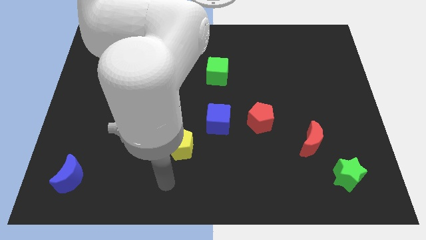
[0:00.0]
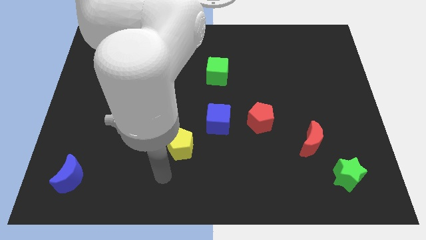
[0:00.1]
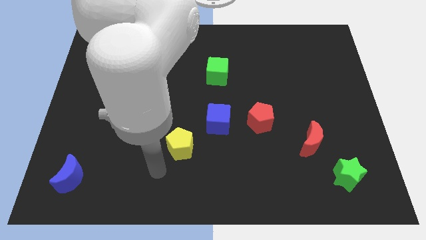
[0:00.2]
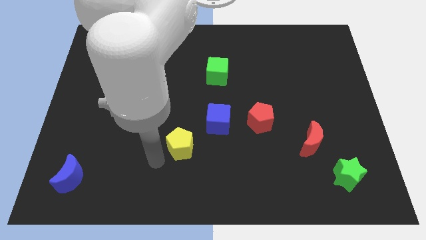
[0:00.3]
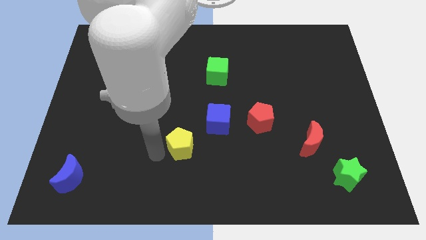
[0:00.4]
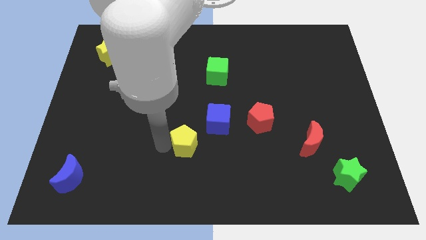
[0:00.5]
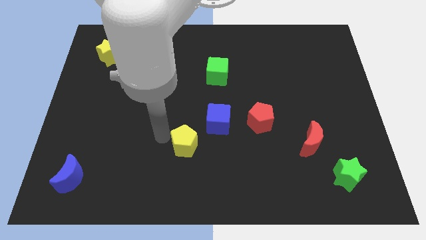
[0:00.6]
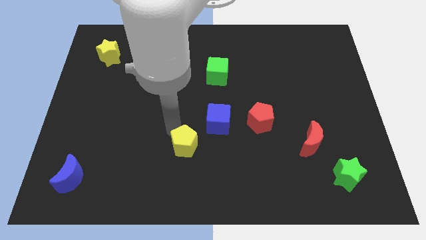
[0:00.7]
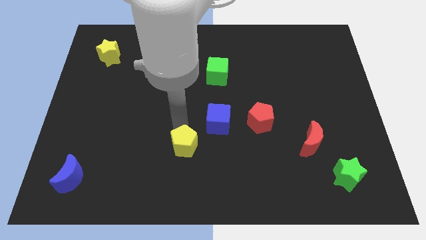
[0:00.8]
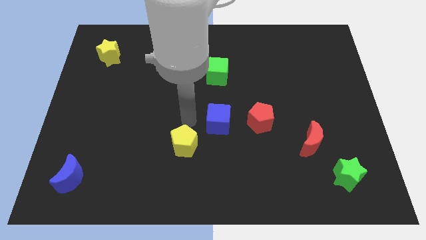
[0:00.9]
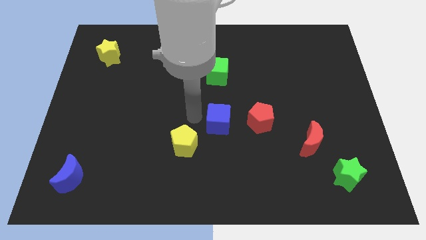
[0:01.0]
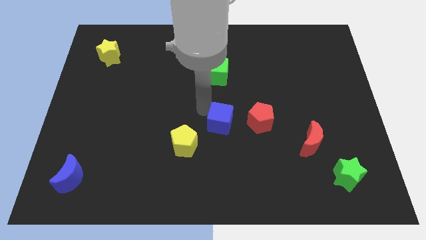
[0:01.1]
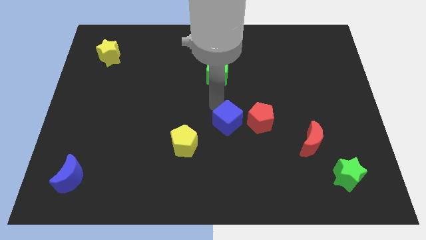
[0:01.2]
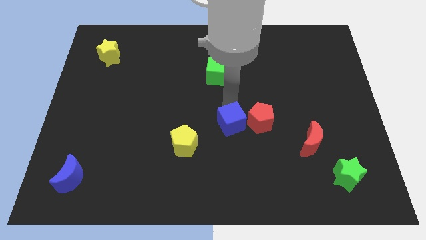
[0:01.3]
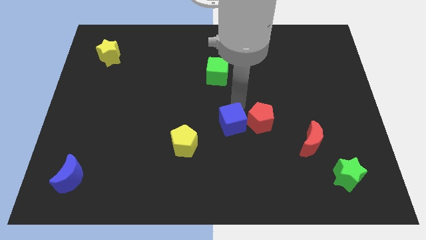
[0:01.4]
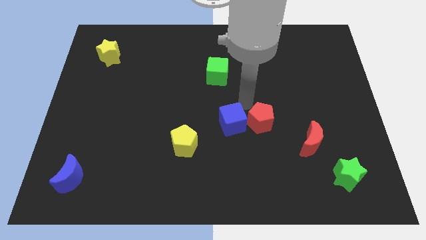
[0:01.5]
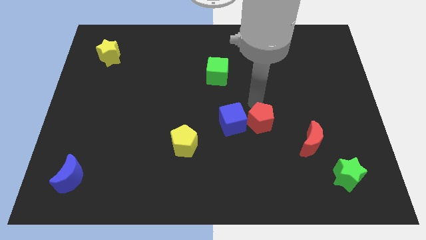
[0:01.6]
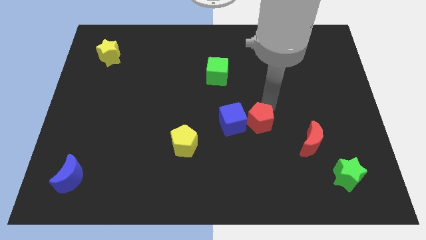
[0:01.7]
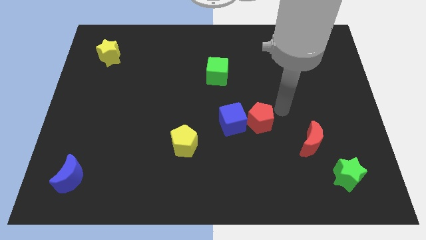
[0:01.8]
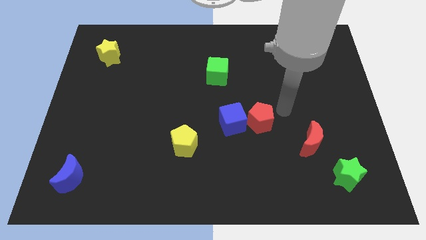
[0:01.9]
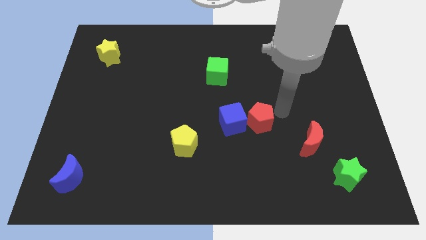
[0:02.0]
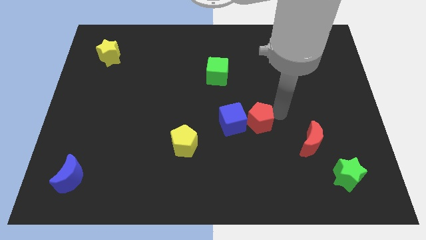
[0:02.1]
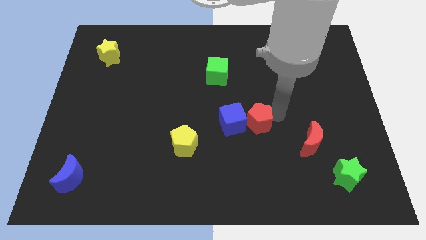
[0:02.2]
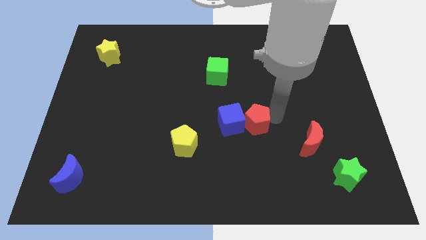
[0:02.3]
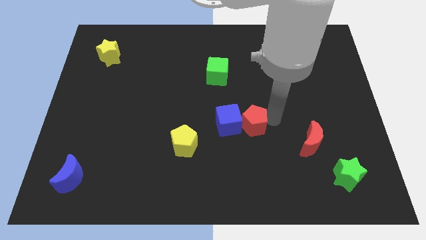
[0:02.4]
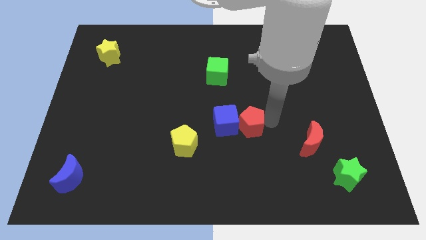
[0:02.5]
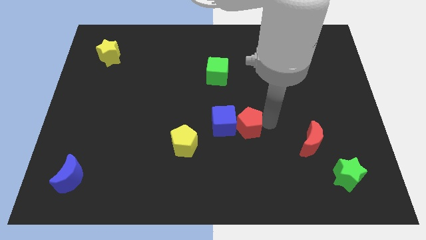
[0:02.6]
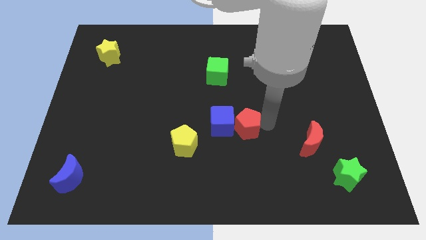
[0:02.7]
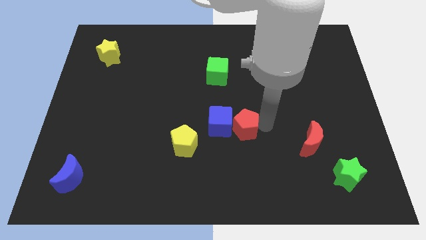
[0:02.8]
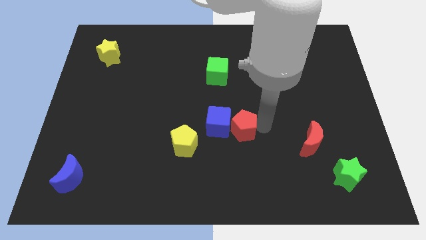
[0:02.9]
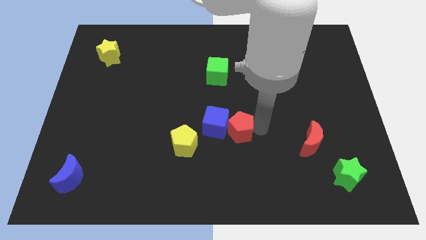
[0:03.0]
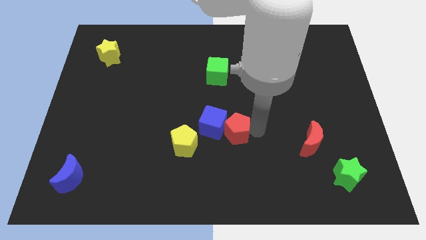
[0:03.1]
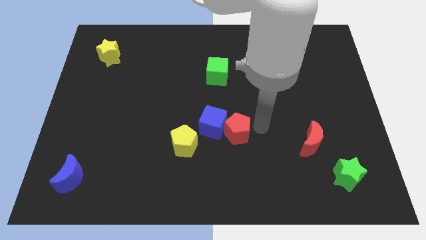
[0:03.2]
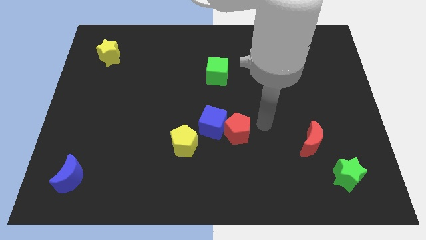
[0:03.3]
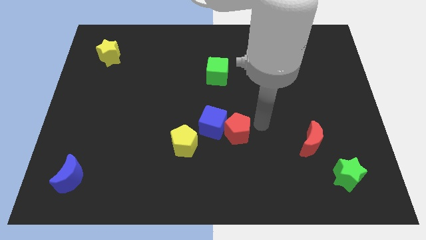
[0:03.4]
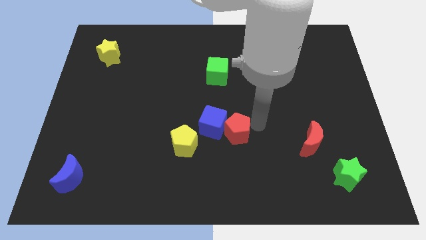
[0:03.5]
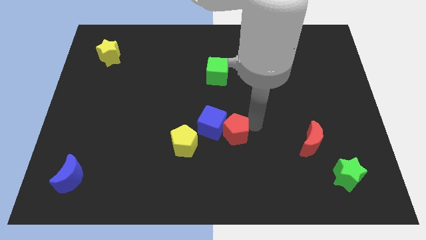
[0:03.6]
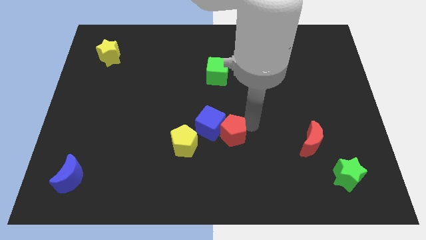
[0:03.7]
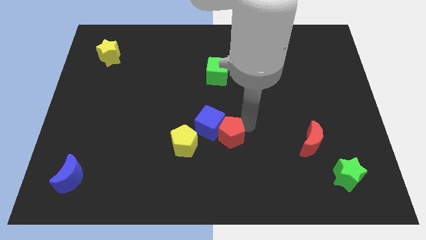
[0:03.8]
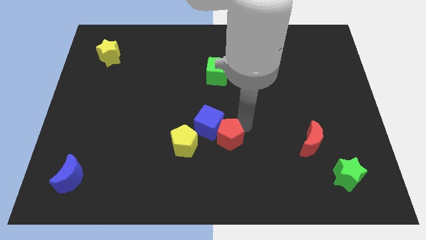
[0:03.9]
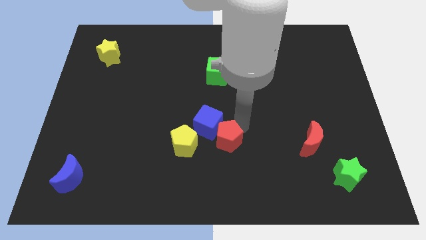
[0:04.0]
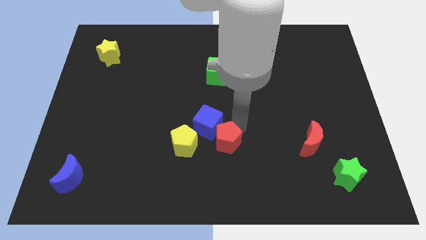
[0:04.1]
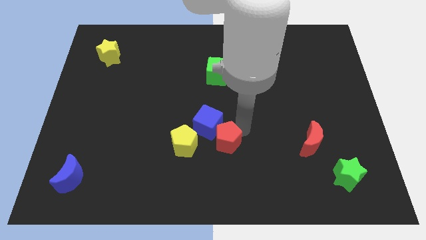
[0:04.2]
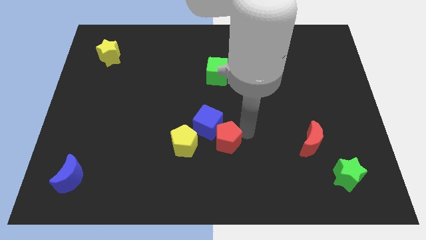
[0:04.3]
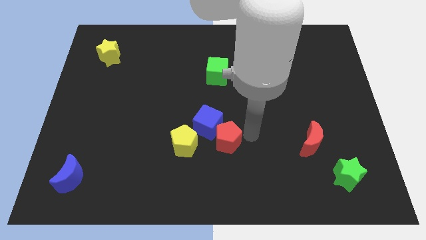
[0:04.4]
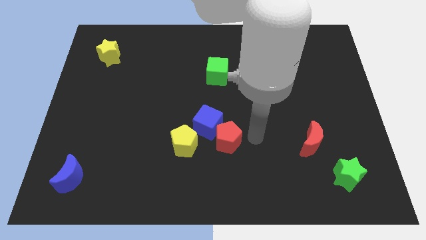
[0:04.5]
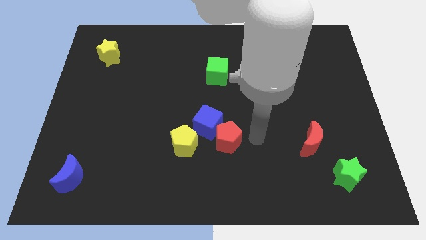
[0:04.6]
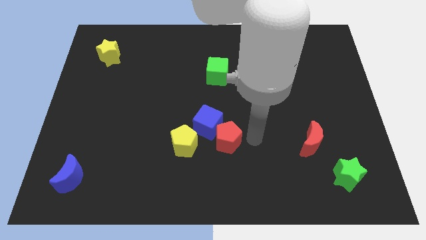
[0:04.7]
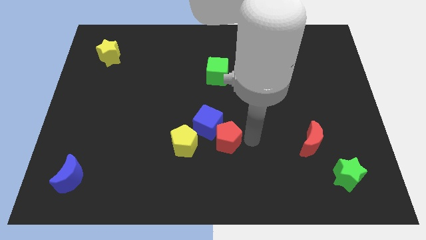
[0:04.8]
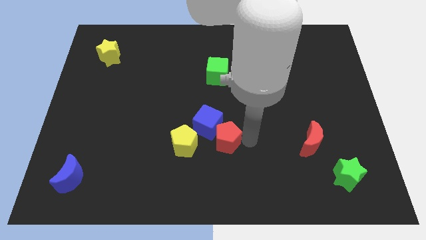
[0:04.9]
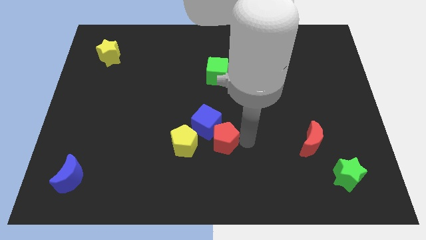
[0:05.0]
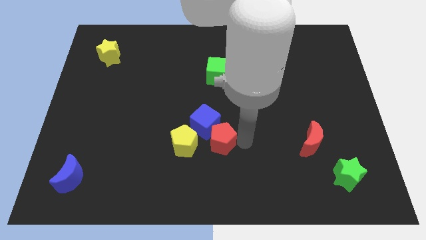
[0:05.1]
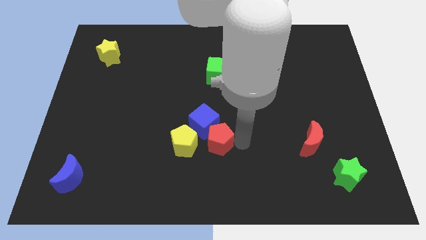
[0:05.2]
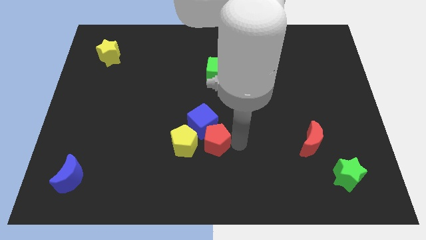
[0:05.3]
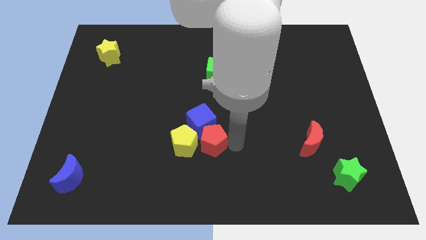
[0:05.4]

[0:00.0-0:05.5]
push the red pentagon towards the yellow pentagon

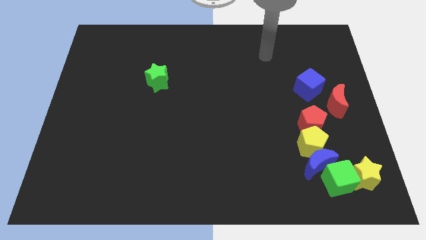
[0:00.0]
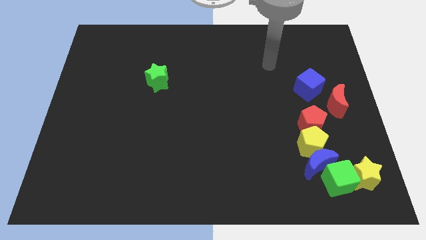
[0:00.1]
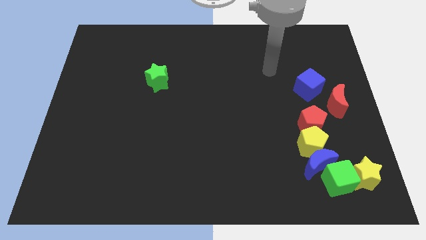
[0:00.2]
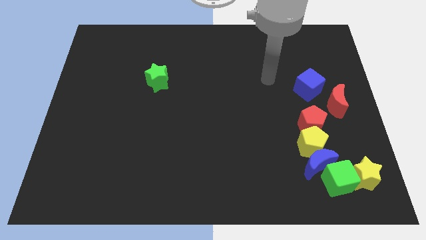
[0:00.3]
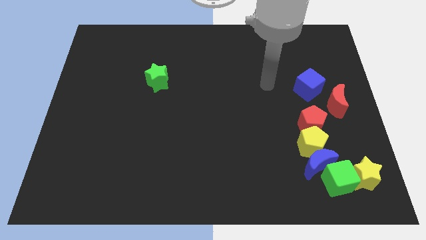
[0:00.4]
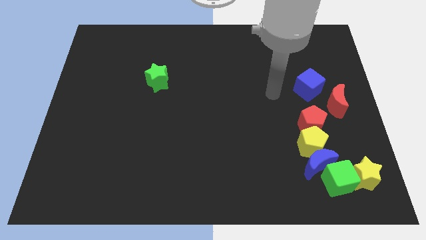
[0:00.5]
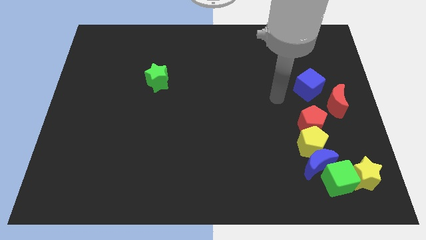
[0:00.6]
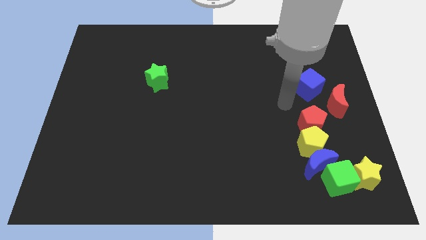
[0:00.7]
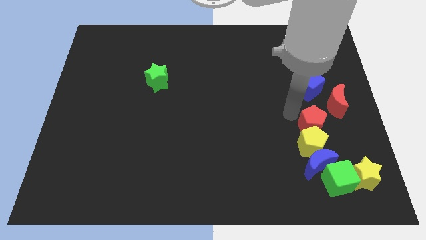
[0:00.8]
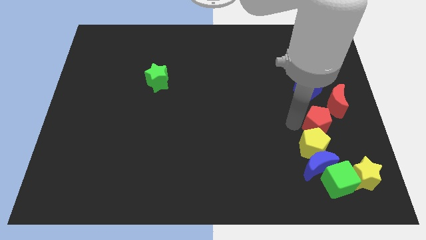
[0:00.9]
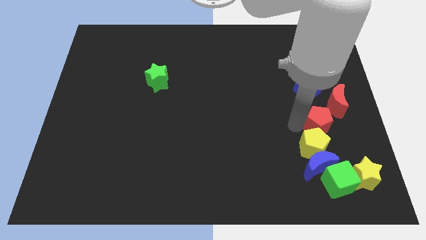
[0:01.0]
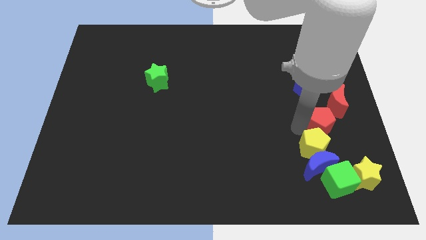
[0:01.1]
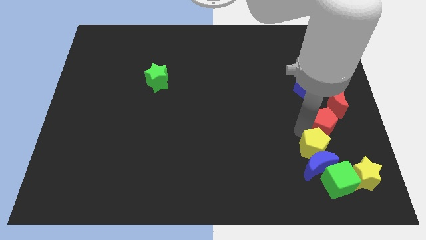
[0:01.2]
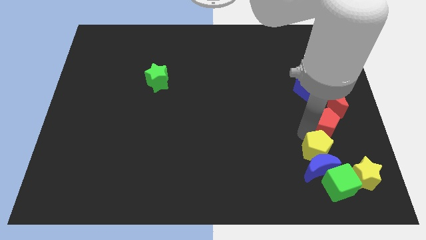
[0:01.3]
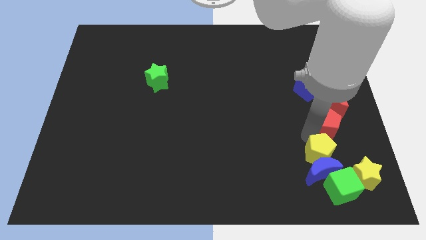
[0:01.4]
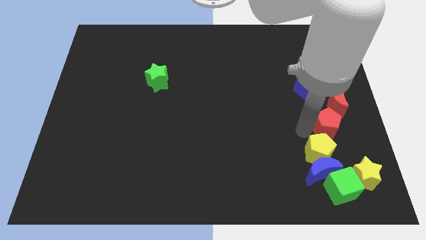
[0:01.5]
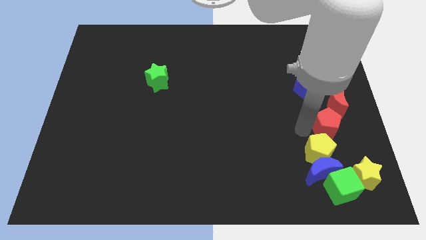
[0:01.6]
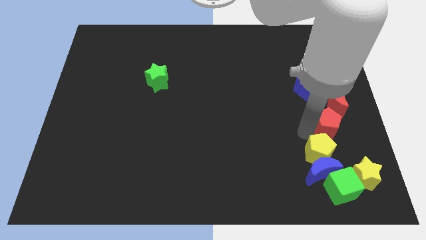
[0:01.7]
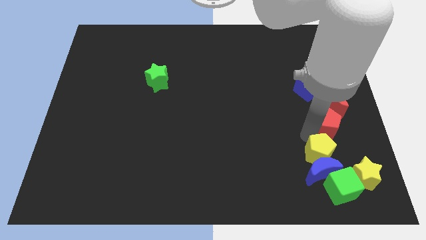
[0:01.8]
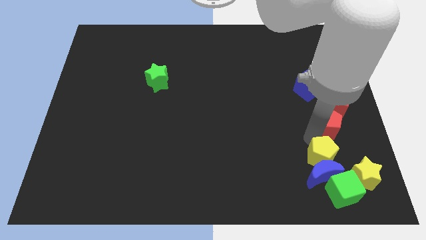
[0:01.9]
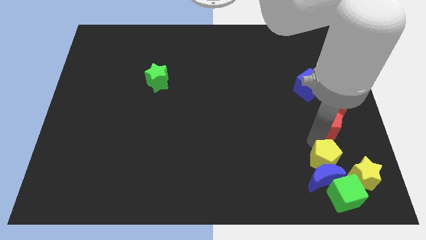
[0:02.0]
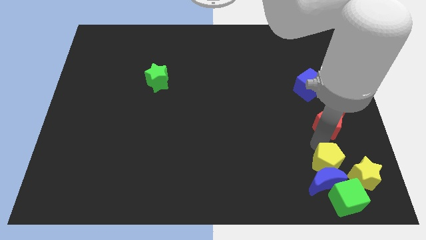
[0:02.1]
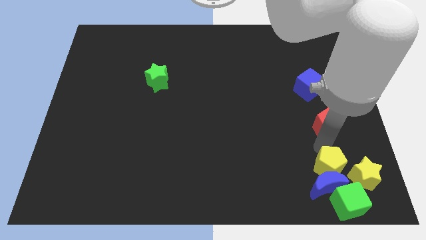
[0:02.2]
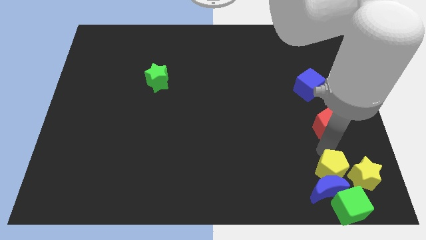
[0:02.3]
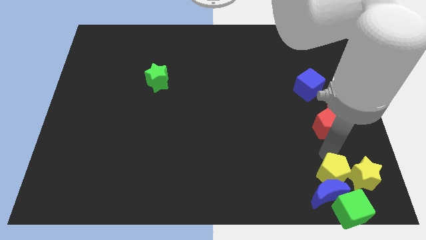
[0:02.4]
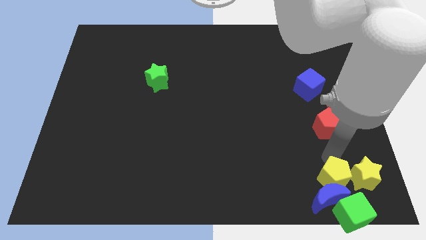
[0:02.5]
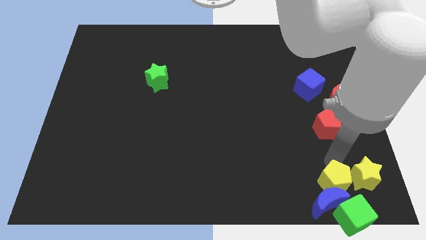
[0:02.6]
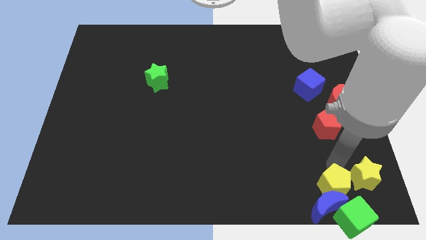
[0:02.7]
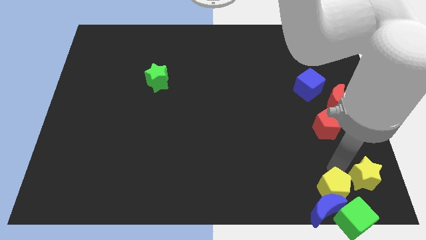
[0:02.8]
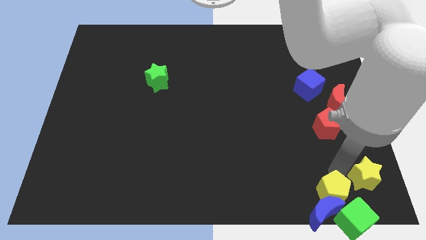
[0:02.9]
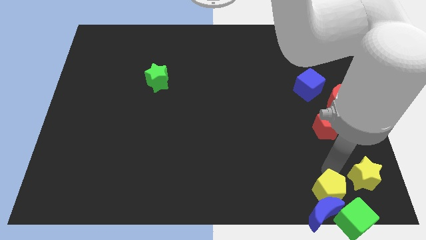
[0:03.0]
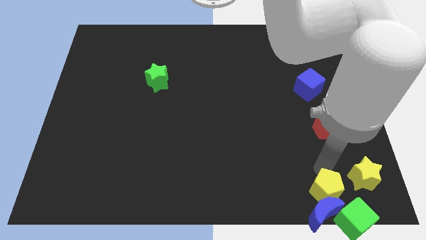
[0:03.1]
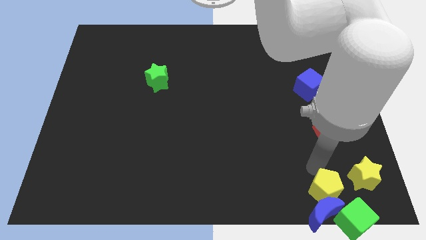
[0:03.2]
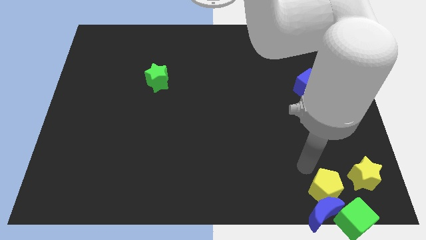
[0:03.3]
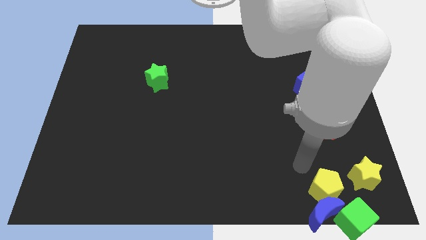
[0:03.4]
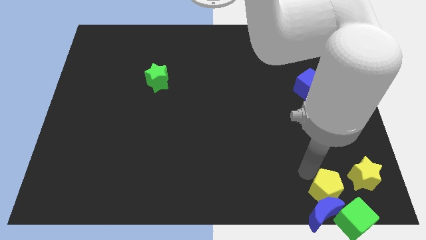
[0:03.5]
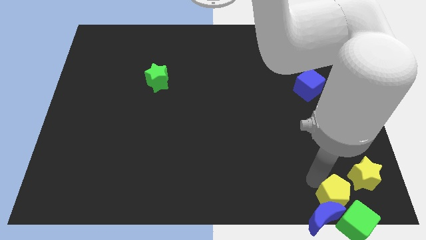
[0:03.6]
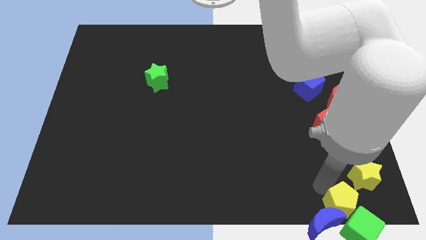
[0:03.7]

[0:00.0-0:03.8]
put the yellow pentagon to the green cube
